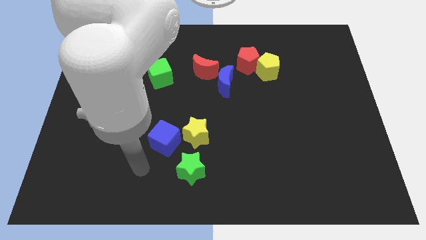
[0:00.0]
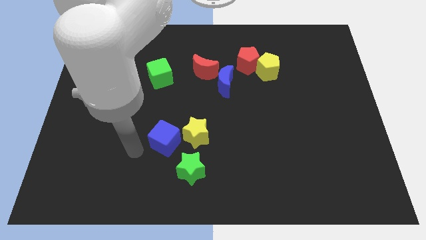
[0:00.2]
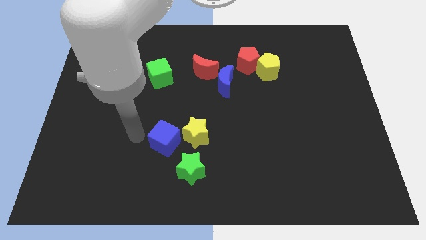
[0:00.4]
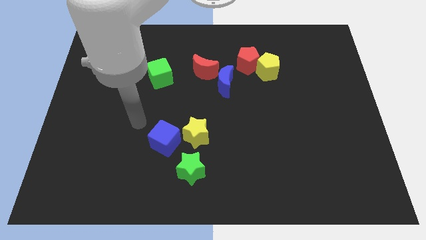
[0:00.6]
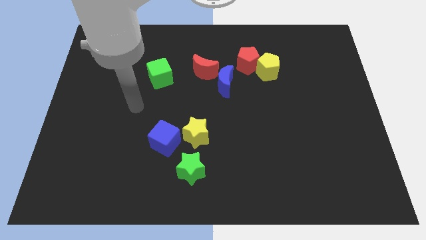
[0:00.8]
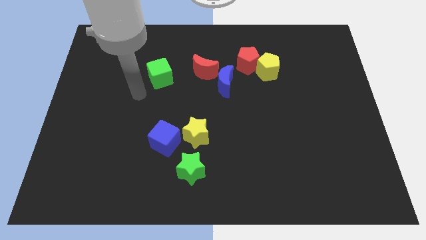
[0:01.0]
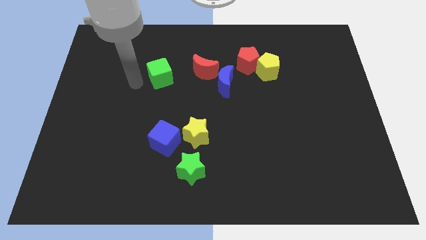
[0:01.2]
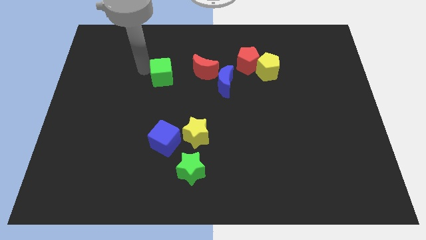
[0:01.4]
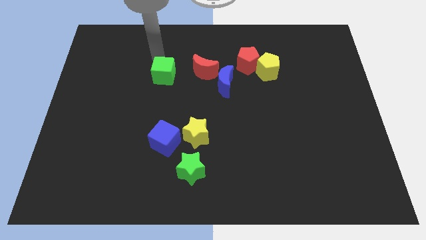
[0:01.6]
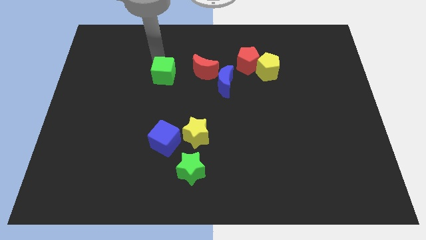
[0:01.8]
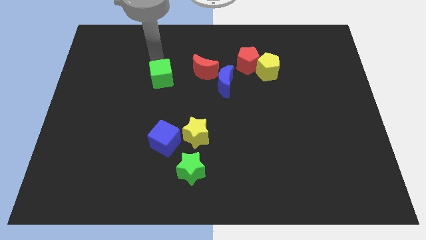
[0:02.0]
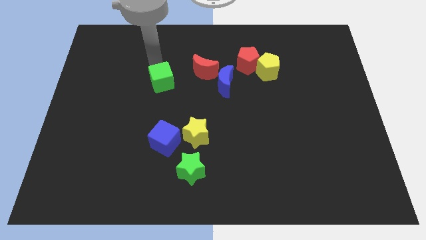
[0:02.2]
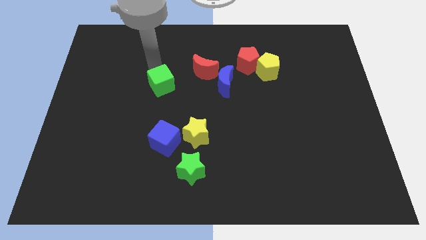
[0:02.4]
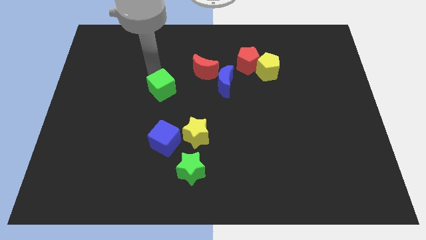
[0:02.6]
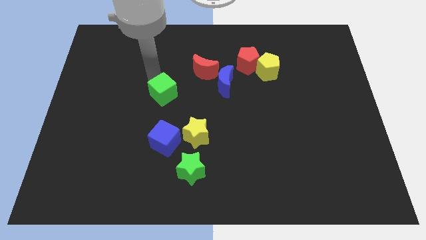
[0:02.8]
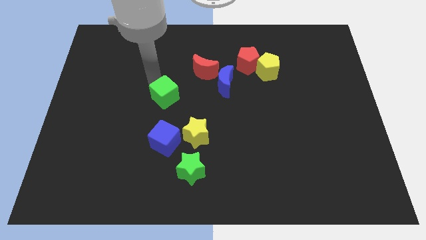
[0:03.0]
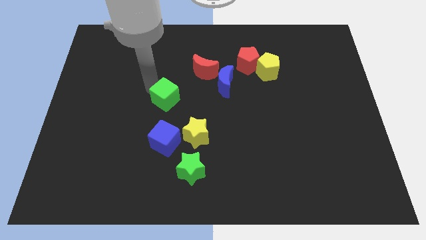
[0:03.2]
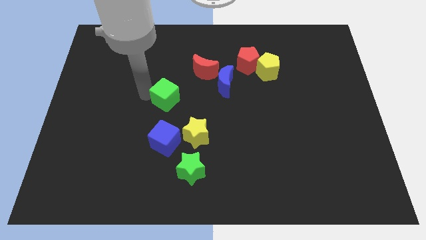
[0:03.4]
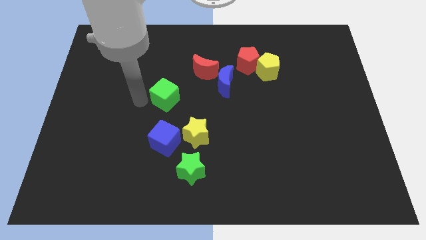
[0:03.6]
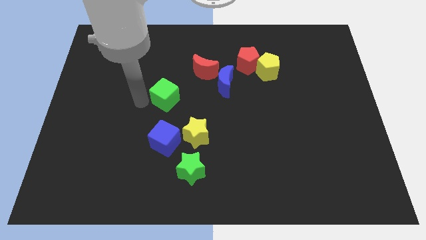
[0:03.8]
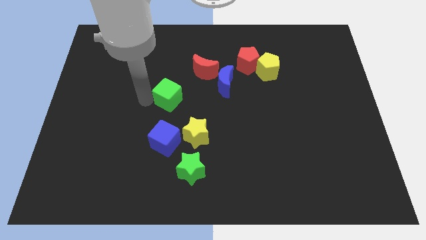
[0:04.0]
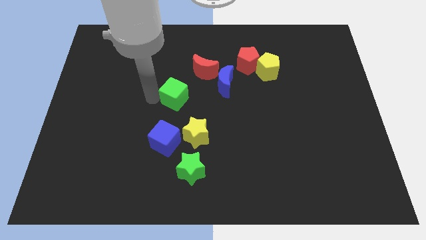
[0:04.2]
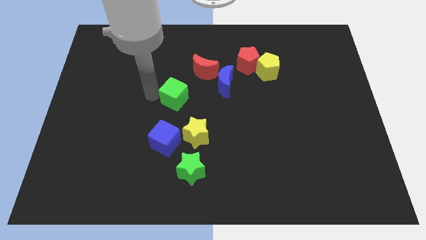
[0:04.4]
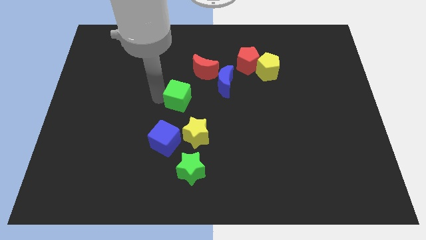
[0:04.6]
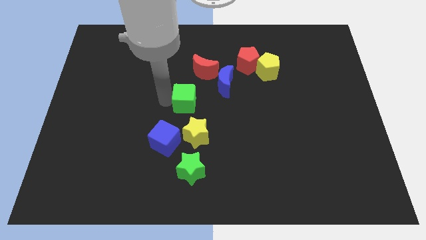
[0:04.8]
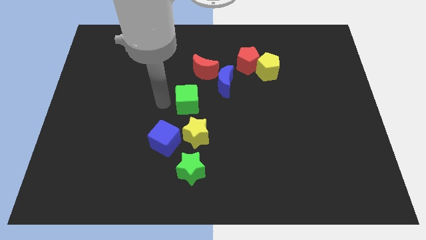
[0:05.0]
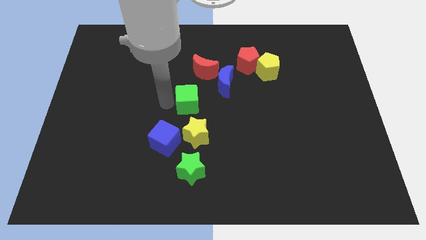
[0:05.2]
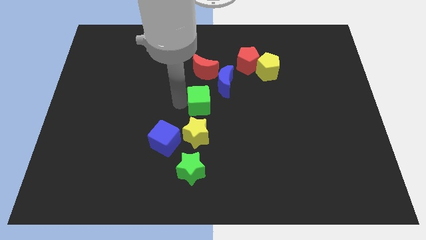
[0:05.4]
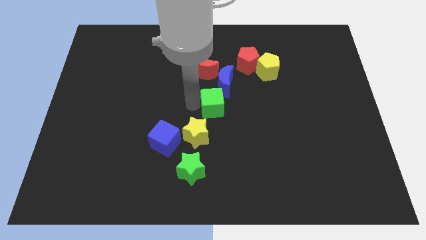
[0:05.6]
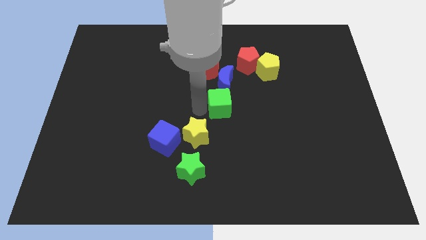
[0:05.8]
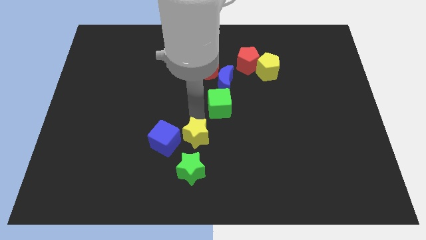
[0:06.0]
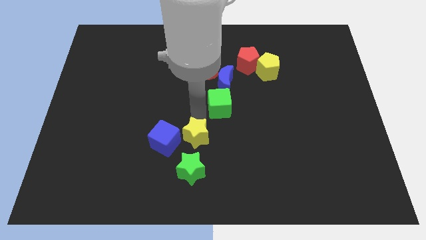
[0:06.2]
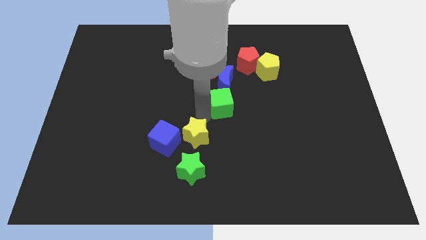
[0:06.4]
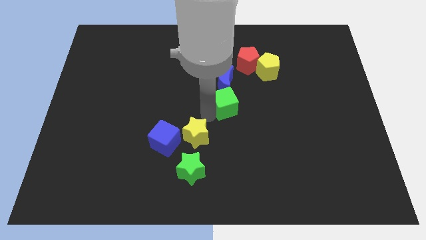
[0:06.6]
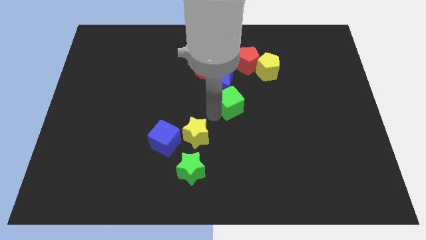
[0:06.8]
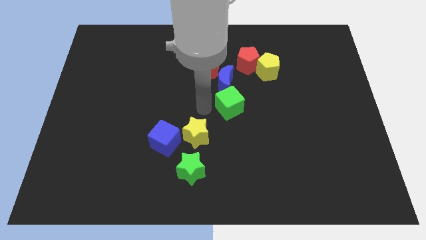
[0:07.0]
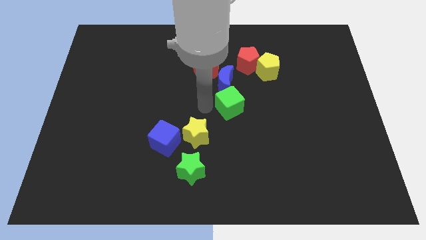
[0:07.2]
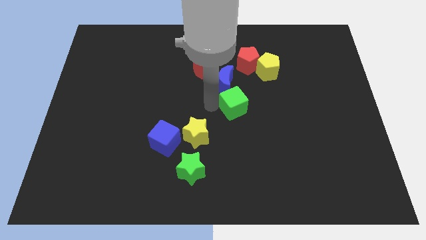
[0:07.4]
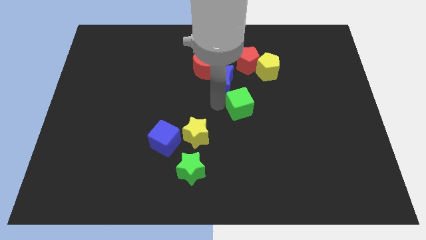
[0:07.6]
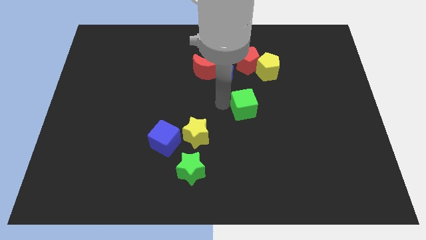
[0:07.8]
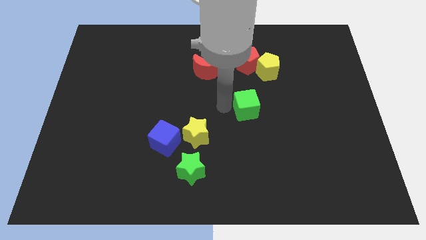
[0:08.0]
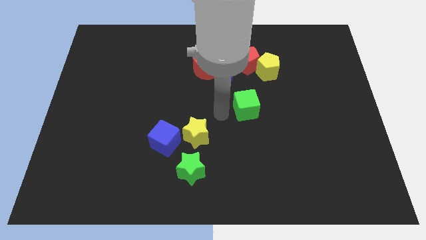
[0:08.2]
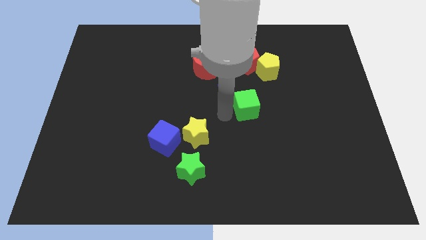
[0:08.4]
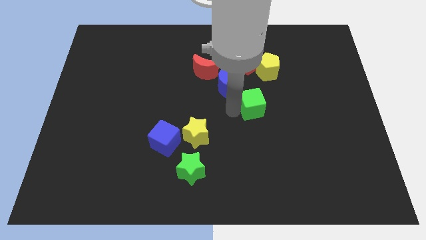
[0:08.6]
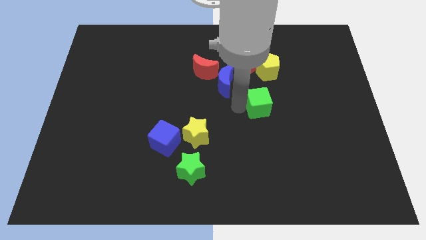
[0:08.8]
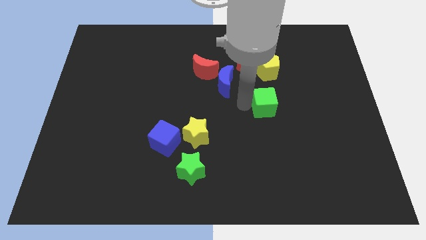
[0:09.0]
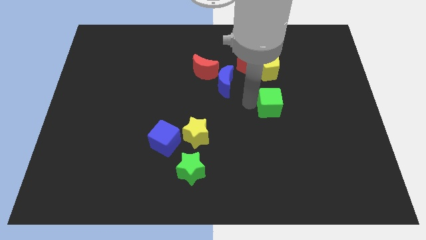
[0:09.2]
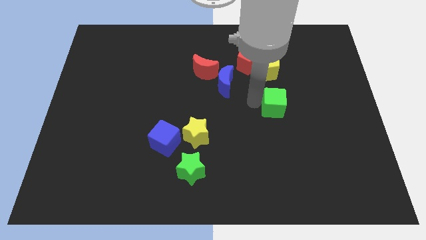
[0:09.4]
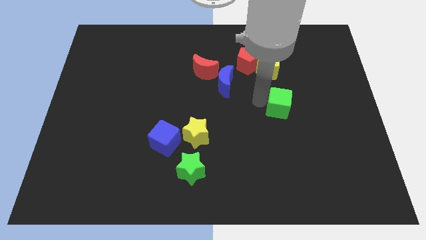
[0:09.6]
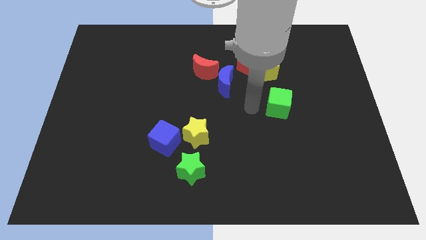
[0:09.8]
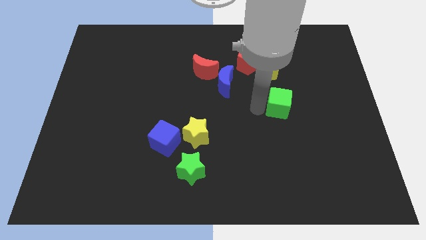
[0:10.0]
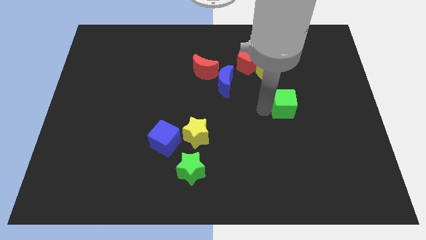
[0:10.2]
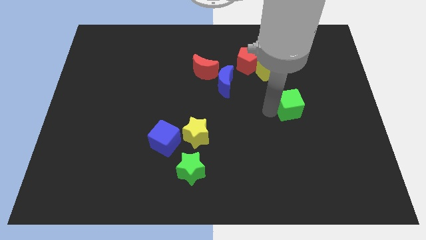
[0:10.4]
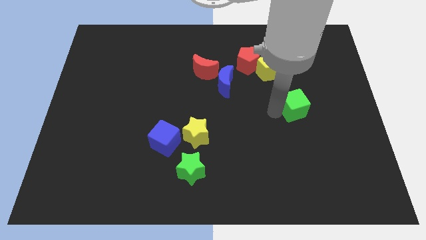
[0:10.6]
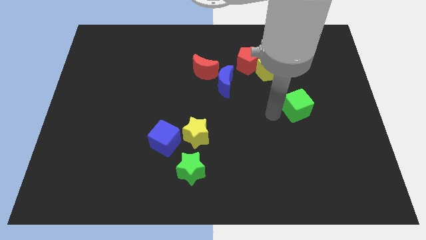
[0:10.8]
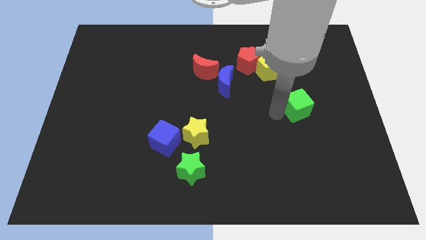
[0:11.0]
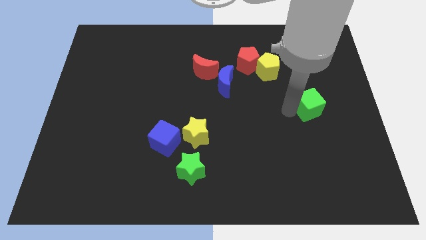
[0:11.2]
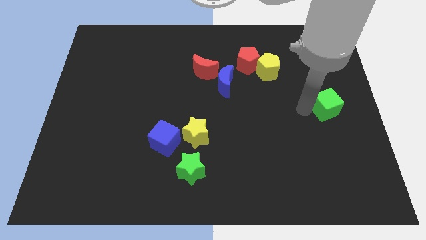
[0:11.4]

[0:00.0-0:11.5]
slide the green cube to the center right
